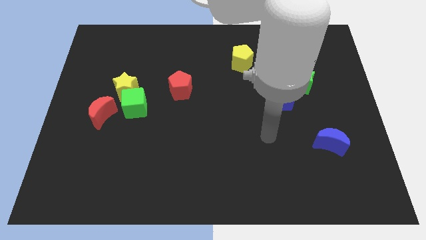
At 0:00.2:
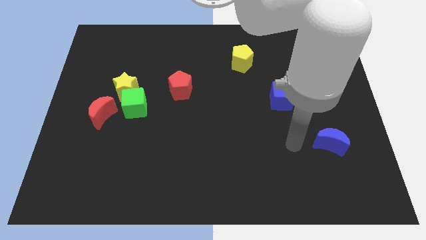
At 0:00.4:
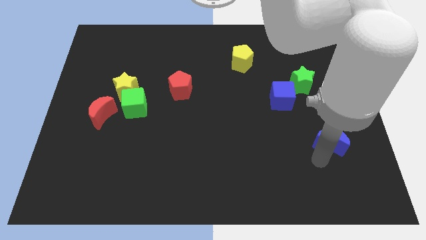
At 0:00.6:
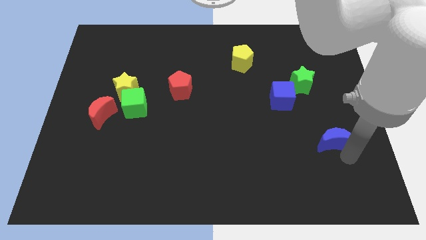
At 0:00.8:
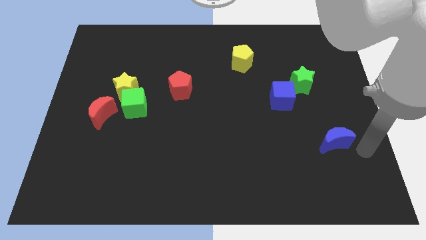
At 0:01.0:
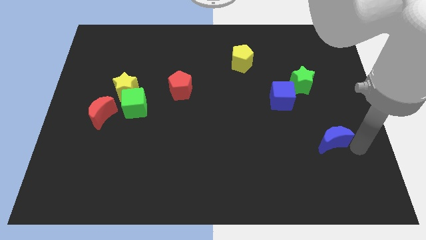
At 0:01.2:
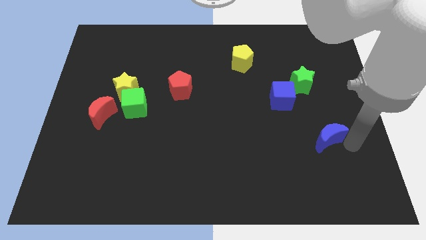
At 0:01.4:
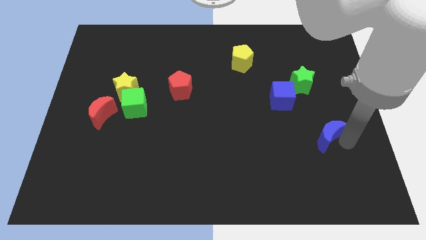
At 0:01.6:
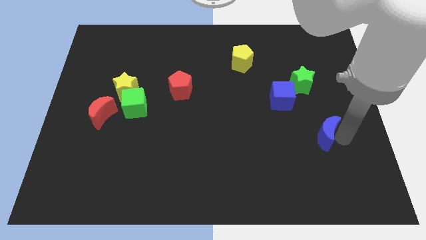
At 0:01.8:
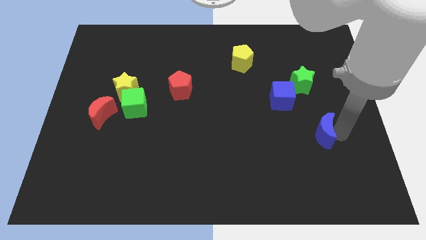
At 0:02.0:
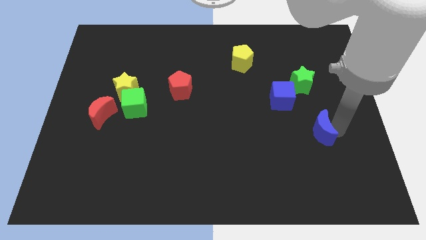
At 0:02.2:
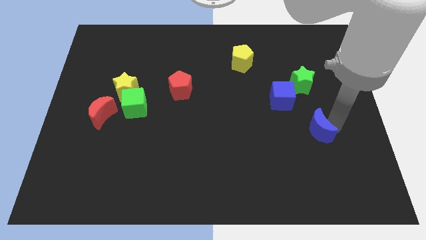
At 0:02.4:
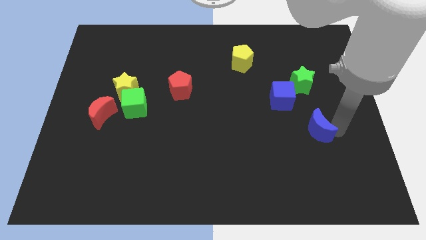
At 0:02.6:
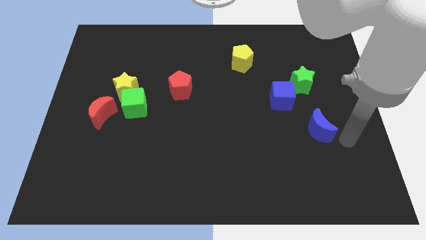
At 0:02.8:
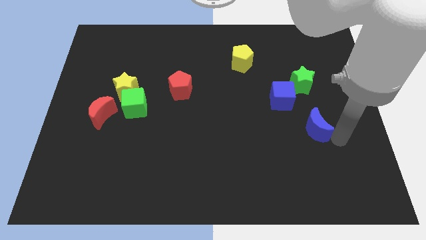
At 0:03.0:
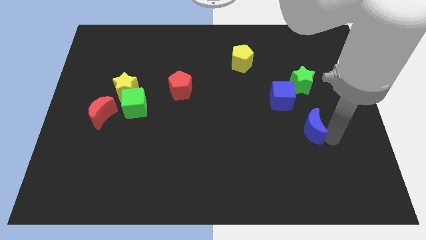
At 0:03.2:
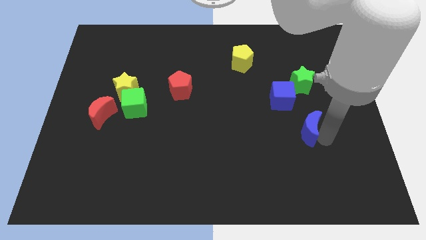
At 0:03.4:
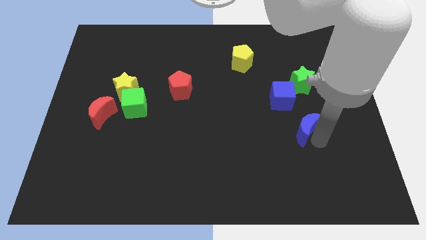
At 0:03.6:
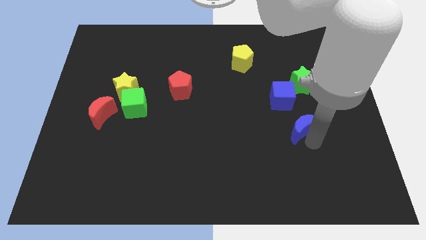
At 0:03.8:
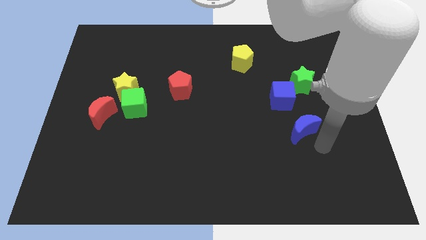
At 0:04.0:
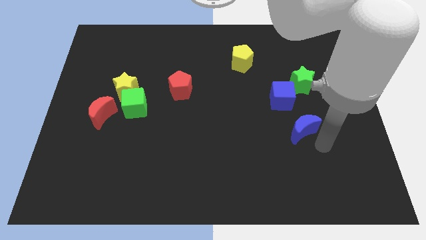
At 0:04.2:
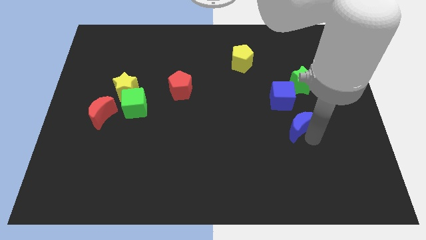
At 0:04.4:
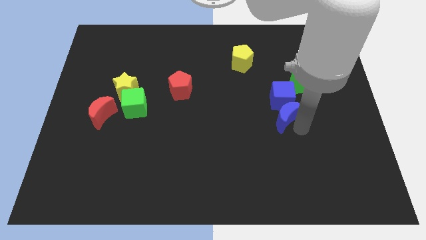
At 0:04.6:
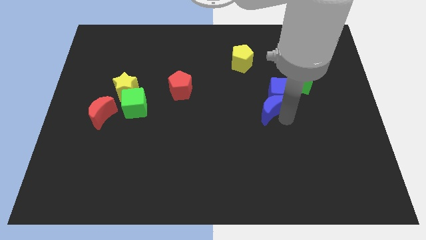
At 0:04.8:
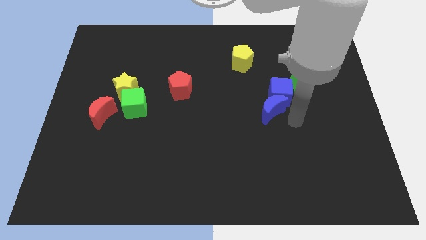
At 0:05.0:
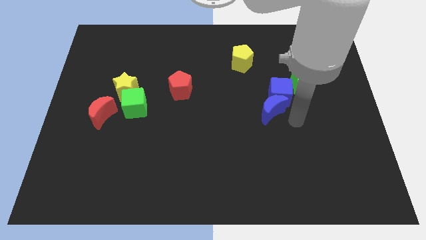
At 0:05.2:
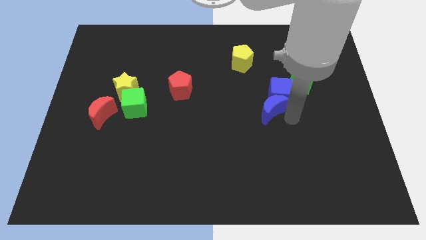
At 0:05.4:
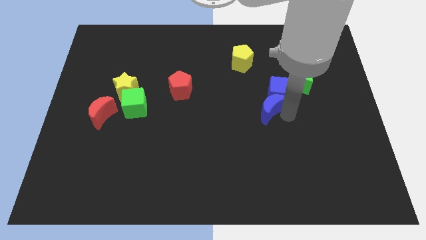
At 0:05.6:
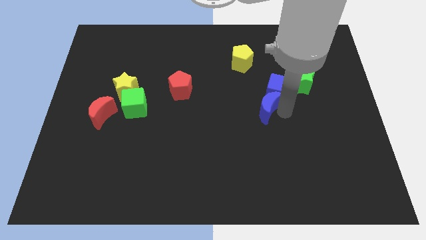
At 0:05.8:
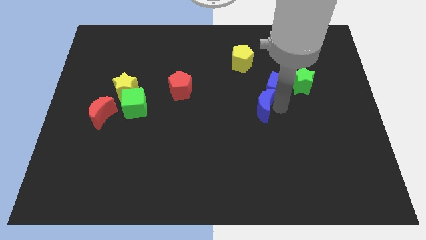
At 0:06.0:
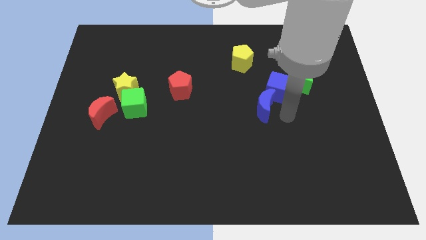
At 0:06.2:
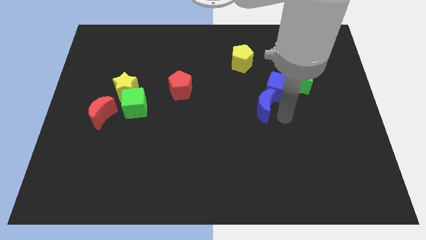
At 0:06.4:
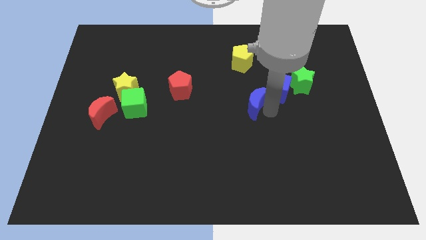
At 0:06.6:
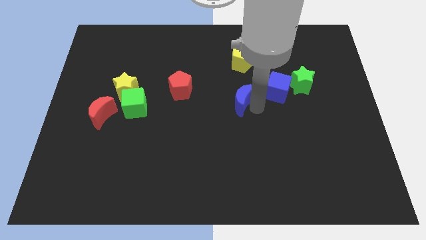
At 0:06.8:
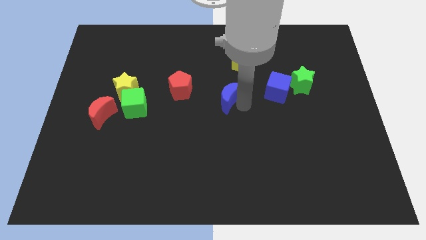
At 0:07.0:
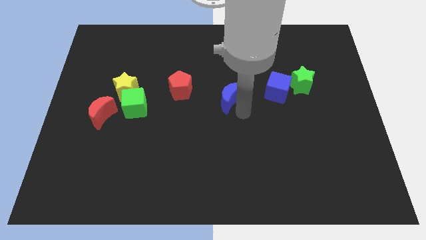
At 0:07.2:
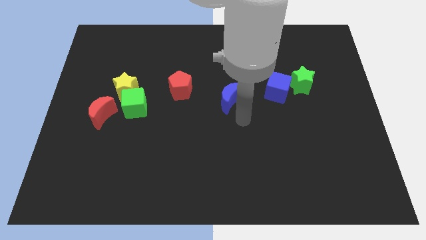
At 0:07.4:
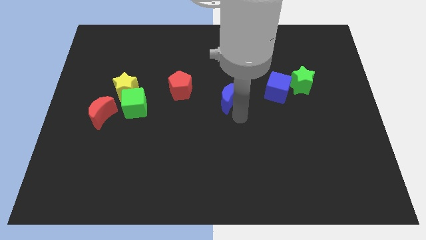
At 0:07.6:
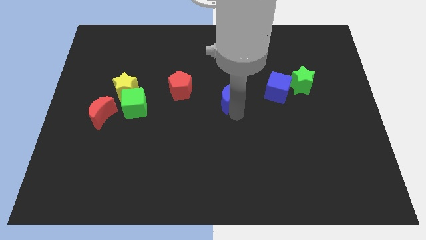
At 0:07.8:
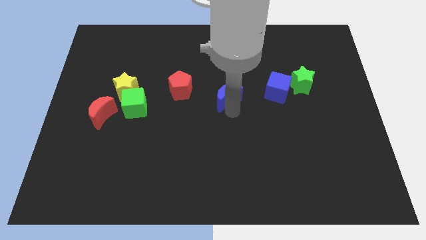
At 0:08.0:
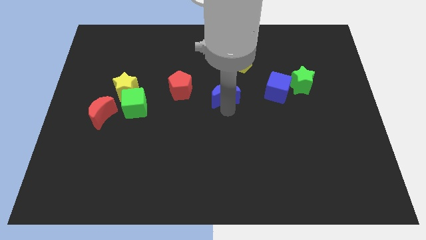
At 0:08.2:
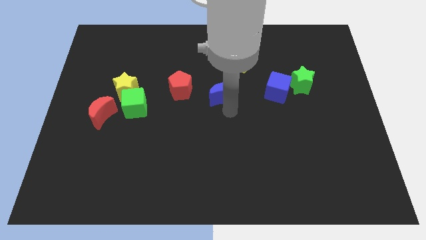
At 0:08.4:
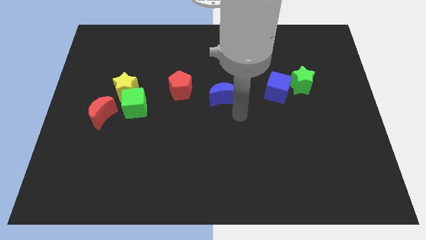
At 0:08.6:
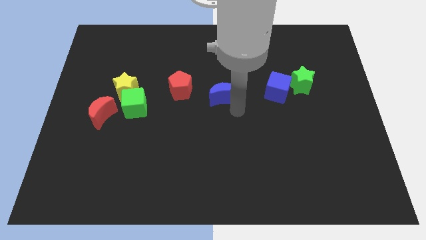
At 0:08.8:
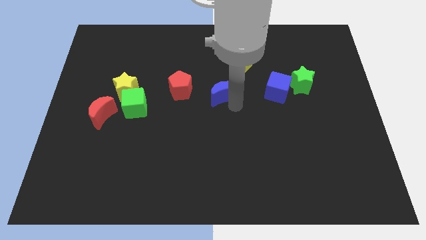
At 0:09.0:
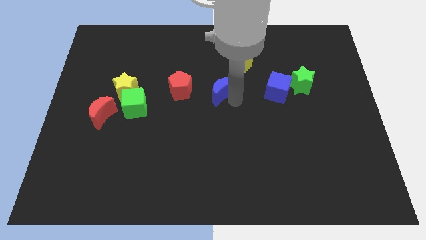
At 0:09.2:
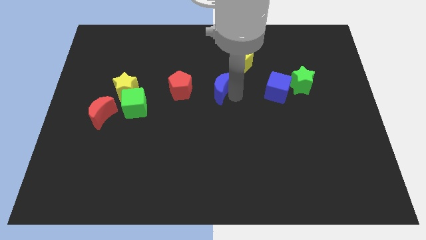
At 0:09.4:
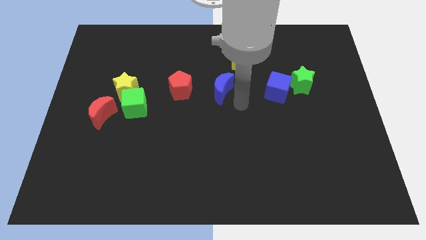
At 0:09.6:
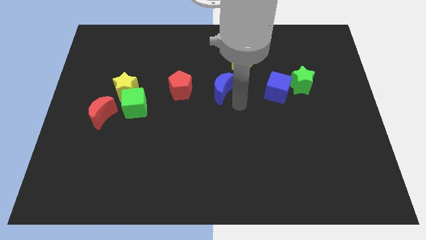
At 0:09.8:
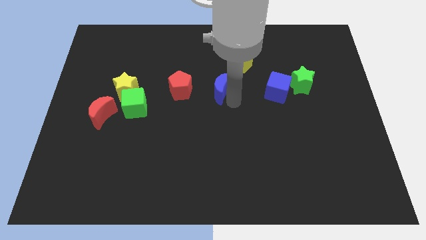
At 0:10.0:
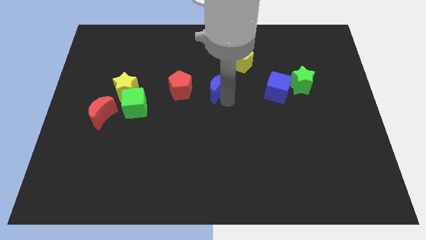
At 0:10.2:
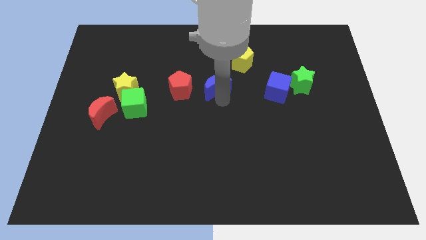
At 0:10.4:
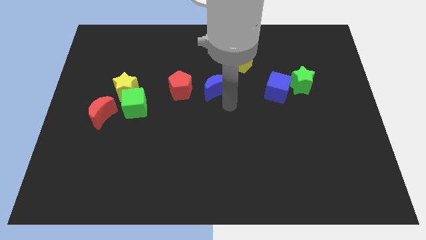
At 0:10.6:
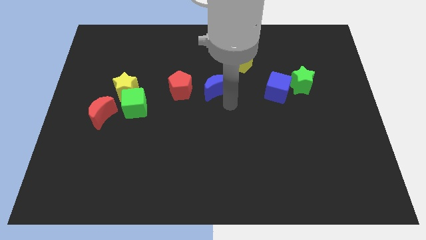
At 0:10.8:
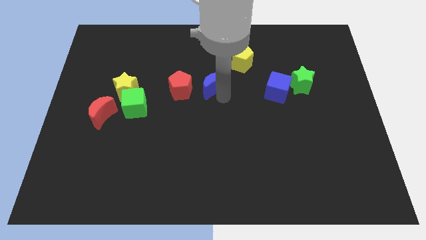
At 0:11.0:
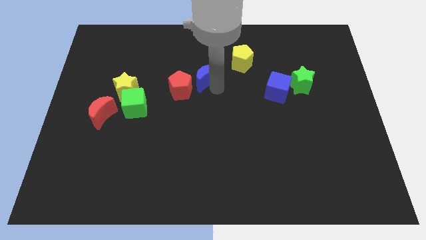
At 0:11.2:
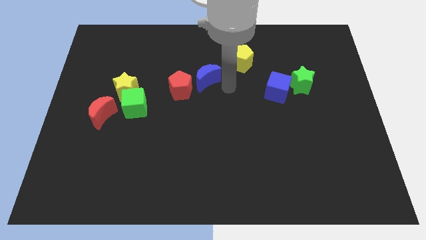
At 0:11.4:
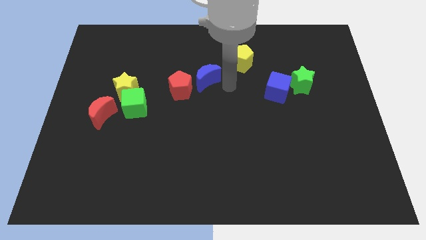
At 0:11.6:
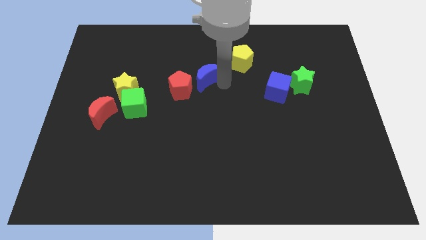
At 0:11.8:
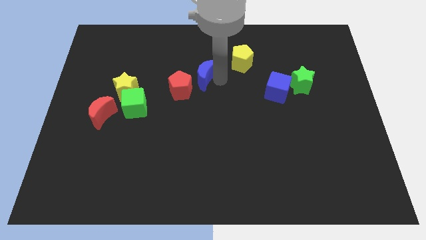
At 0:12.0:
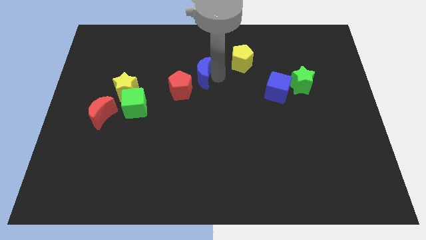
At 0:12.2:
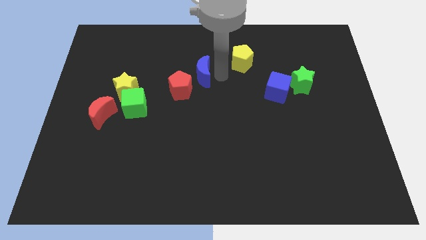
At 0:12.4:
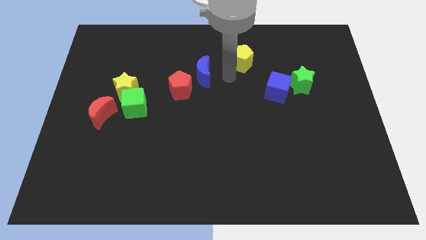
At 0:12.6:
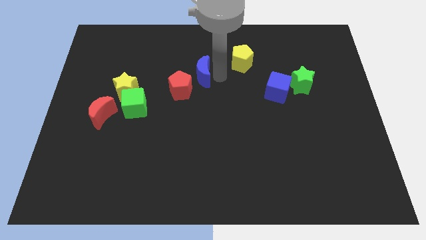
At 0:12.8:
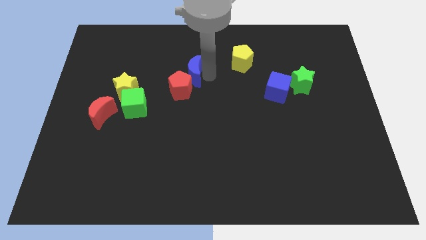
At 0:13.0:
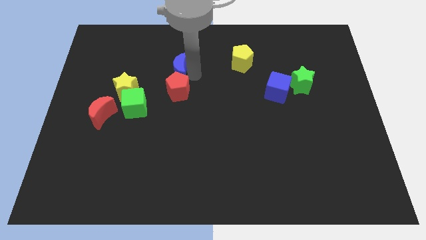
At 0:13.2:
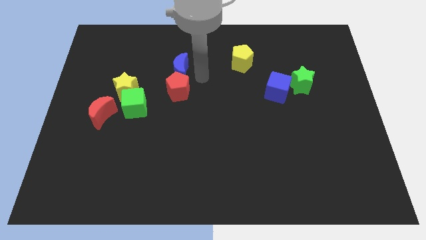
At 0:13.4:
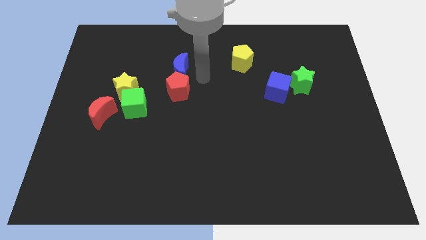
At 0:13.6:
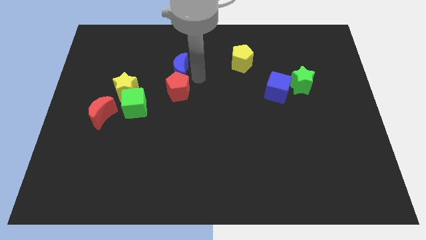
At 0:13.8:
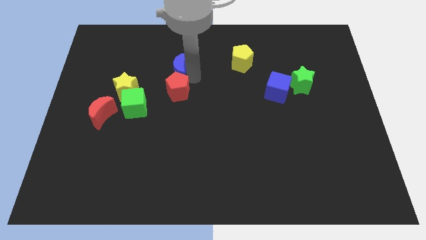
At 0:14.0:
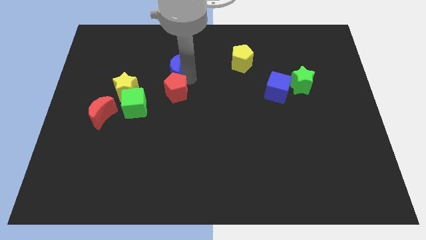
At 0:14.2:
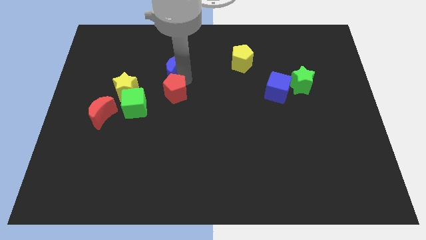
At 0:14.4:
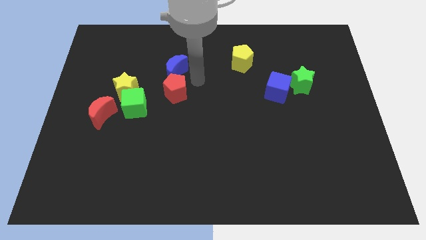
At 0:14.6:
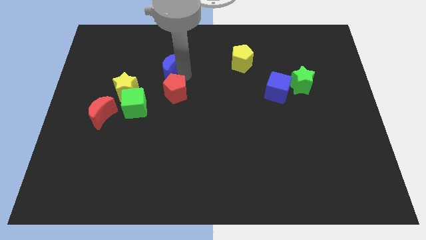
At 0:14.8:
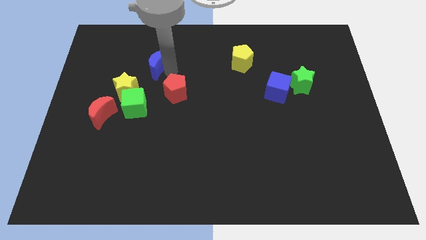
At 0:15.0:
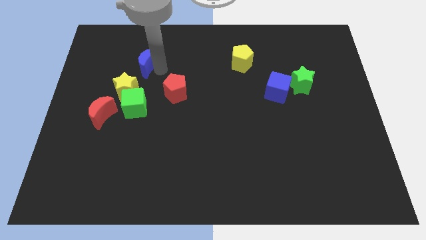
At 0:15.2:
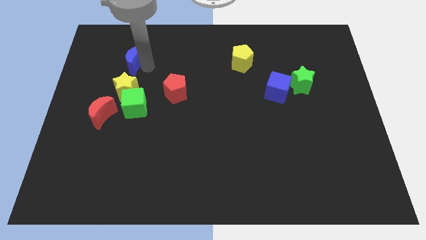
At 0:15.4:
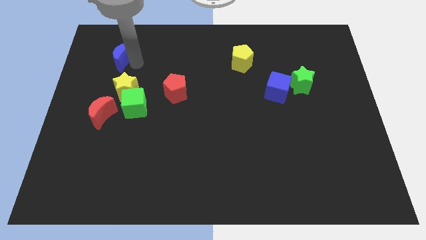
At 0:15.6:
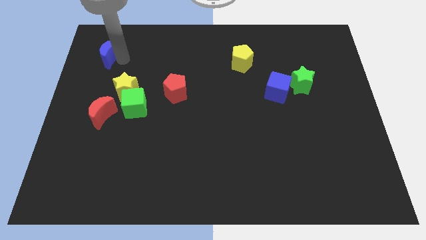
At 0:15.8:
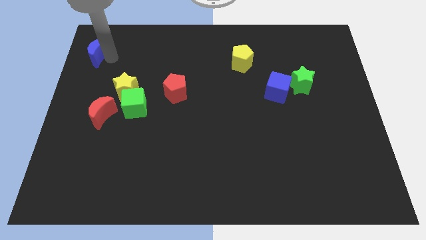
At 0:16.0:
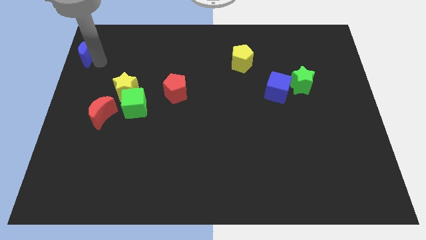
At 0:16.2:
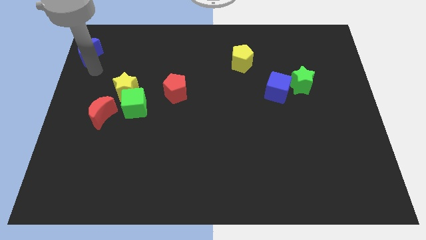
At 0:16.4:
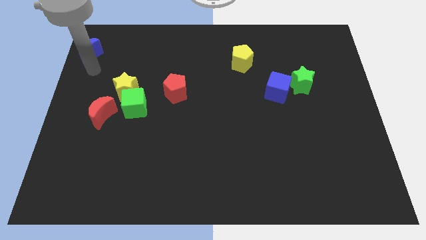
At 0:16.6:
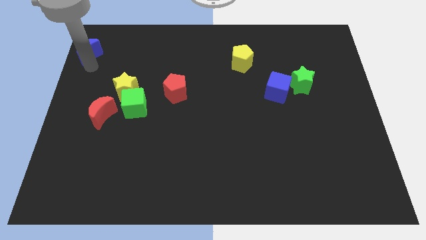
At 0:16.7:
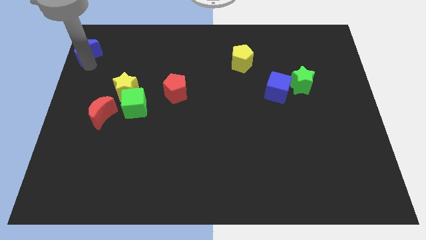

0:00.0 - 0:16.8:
put the blue moon to the top left corner
